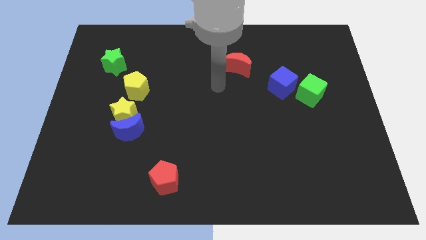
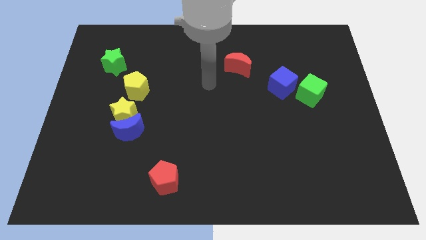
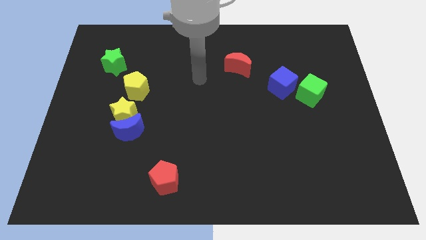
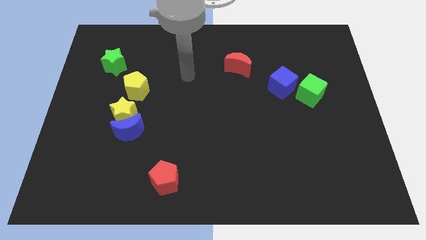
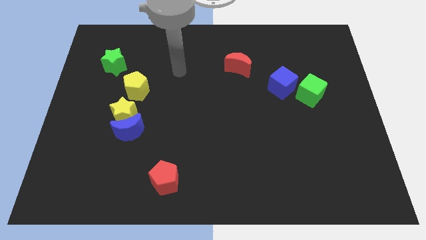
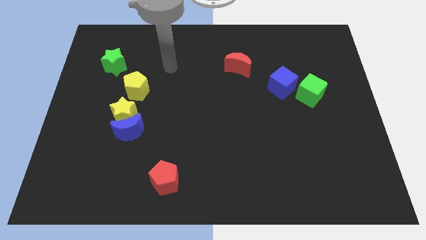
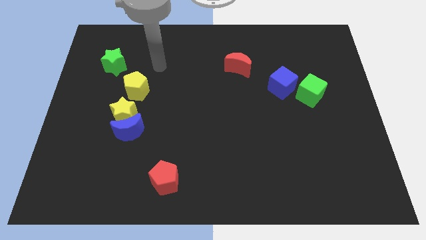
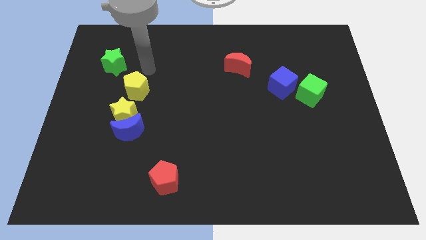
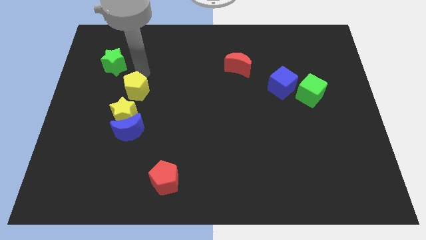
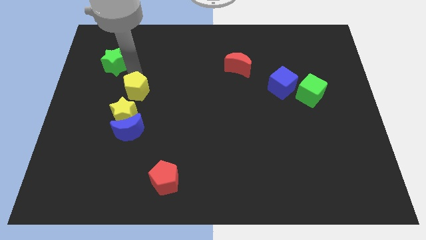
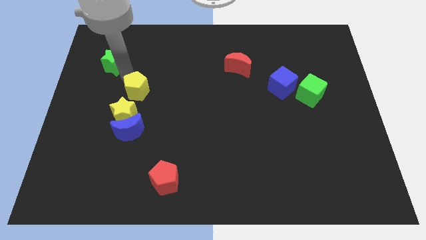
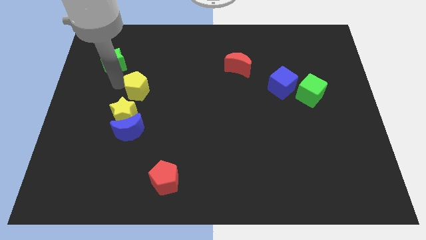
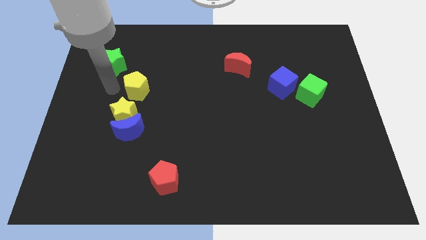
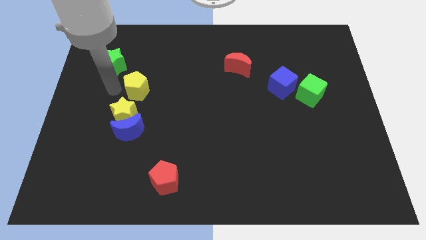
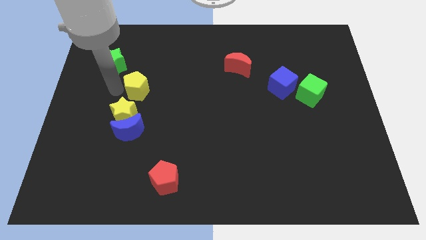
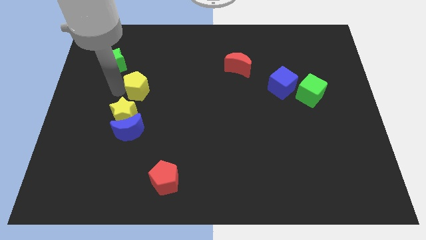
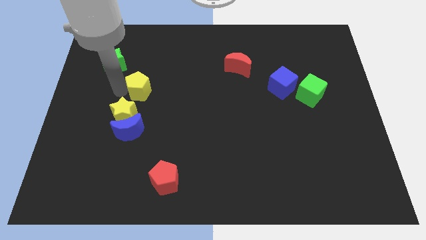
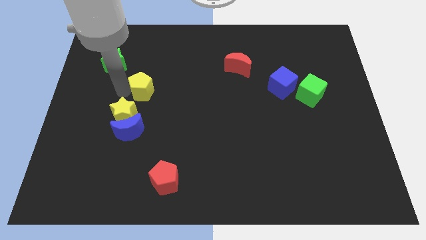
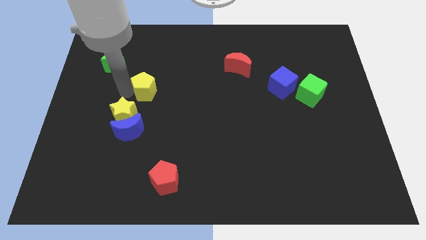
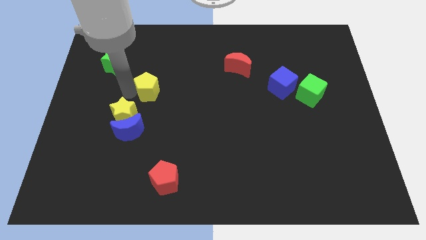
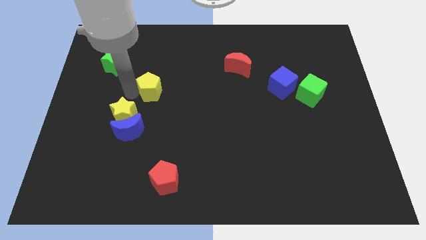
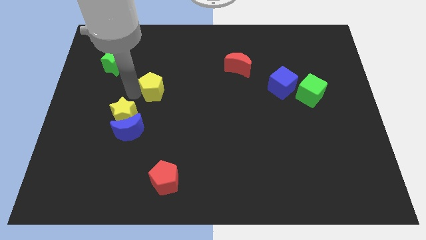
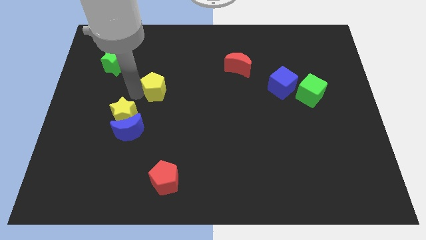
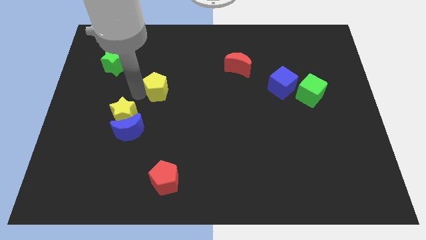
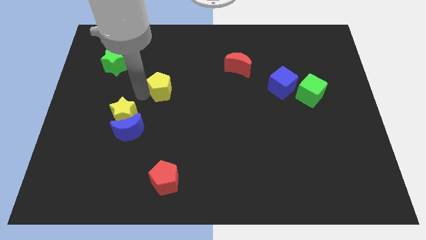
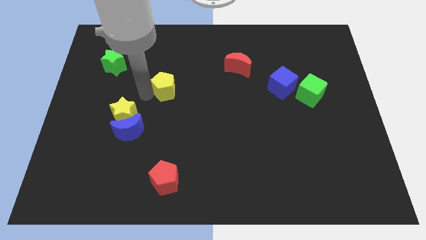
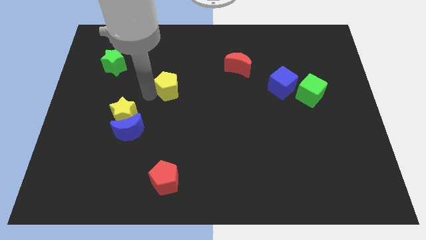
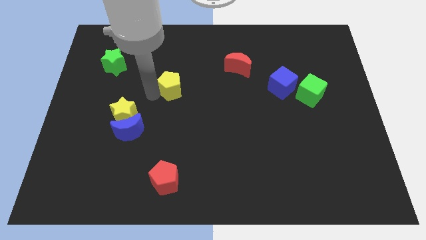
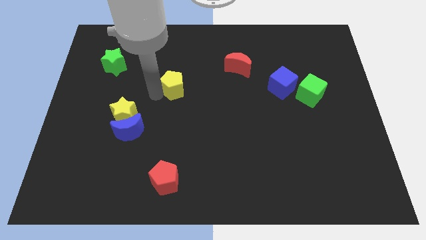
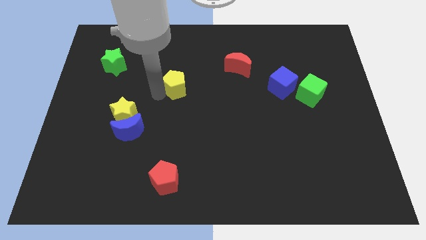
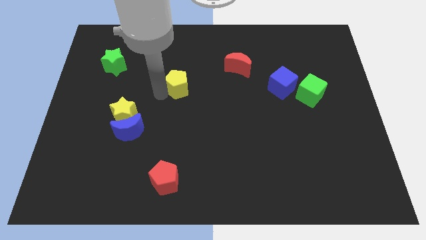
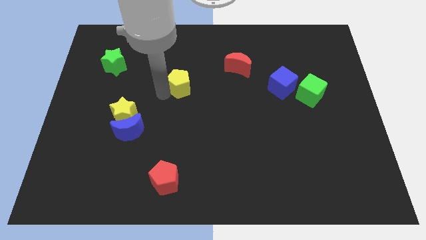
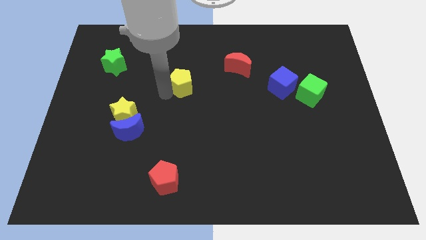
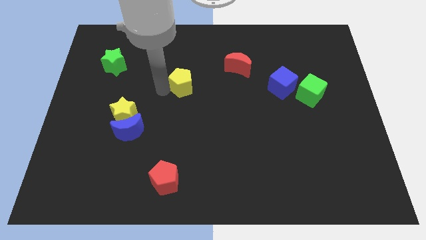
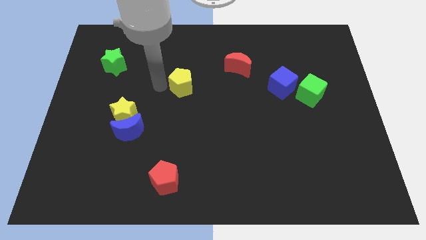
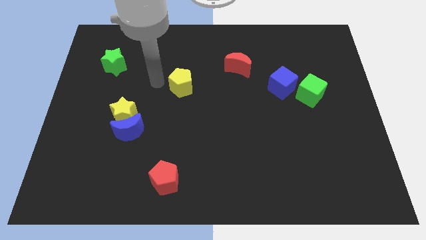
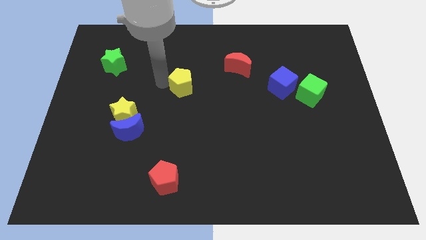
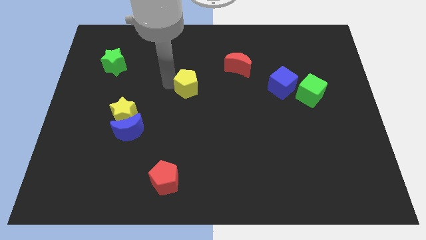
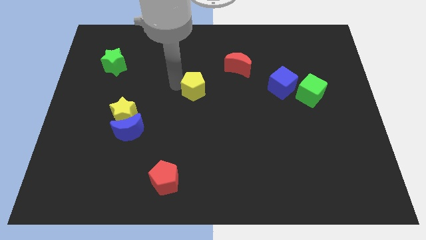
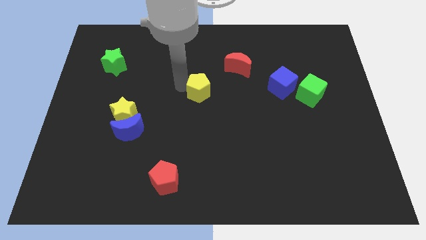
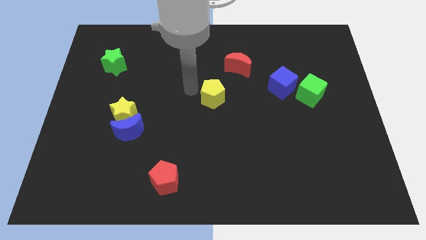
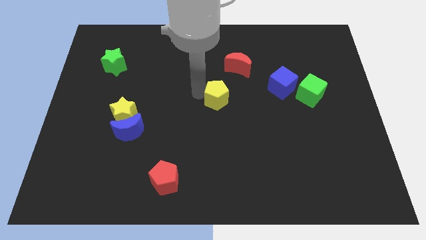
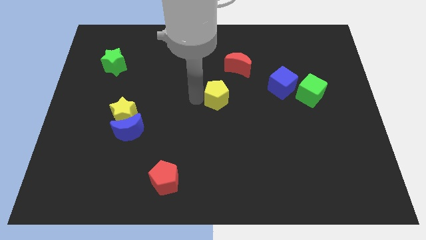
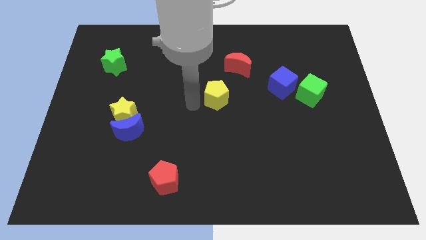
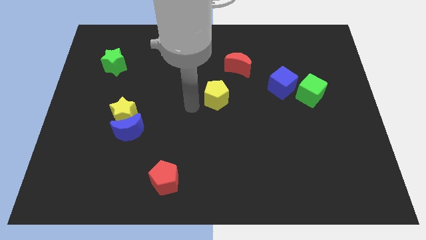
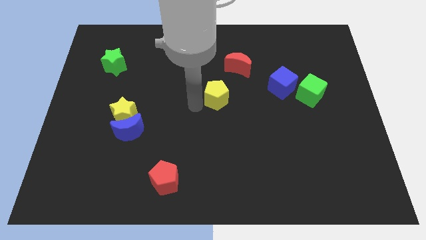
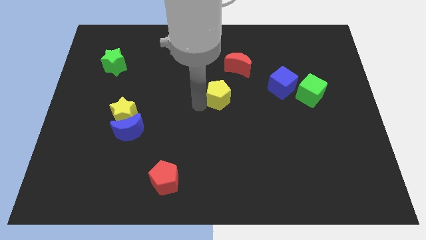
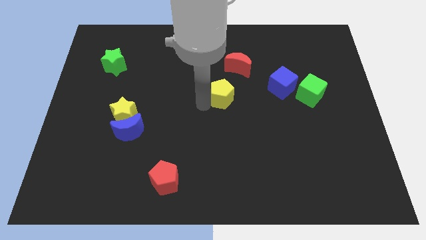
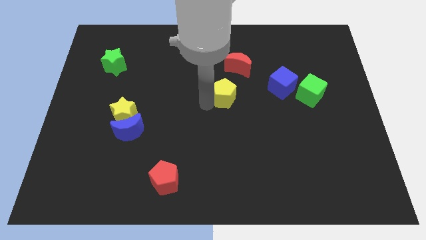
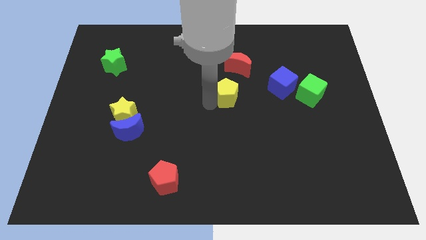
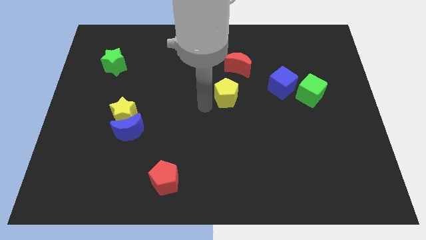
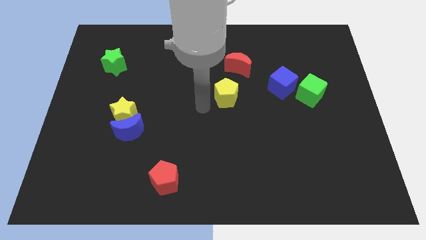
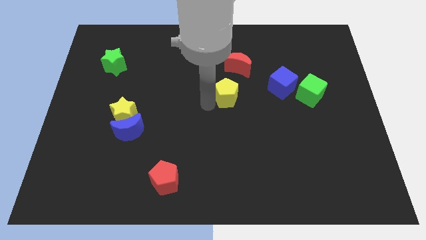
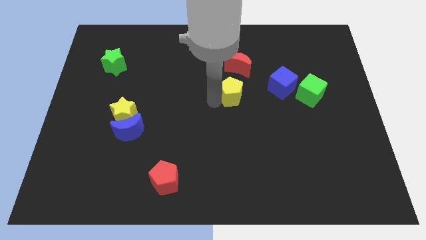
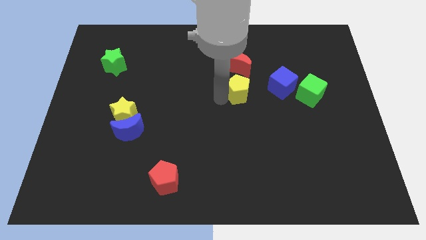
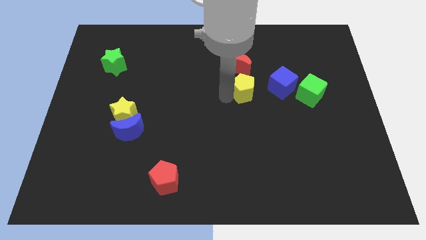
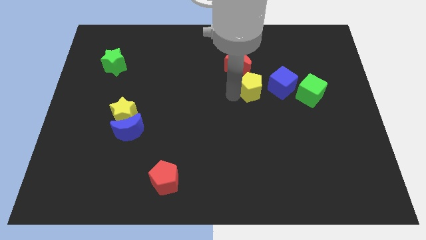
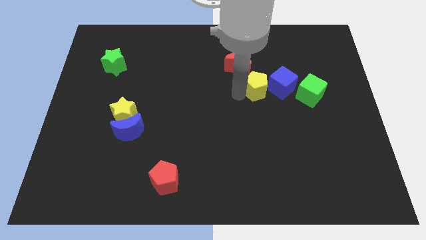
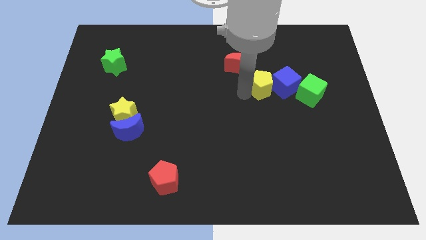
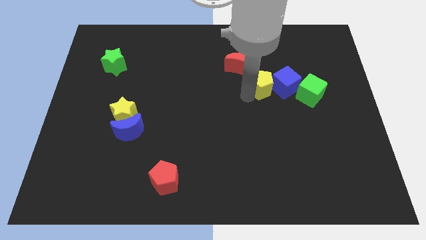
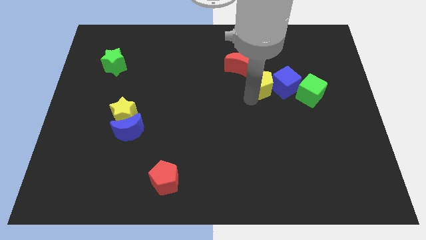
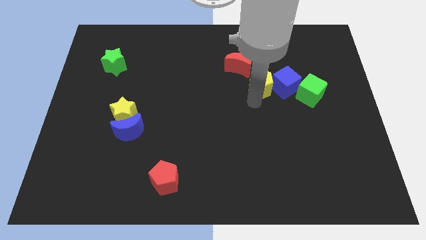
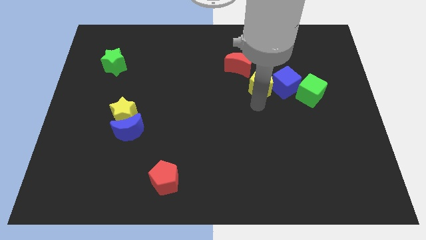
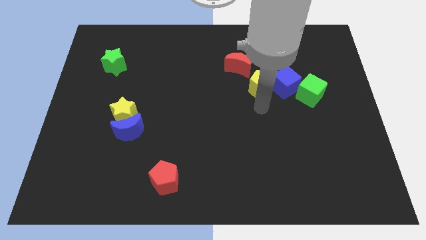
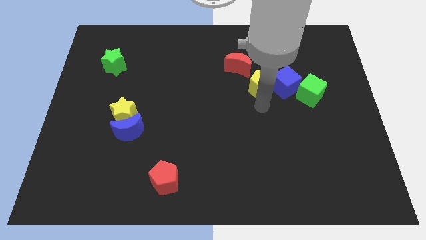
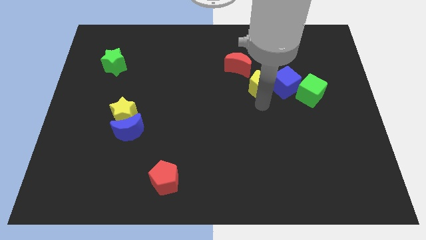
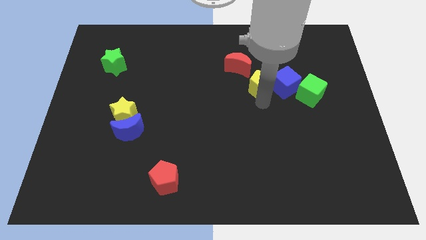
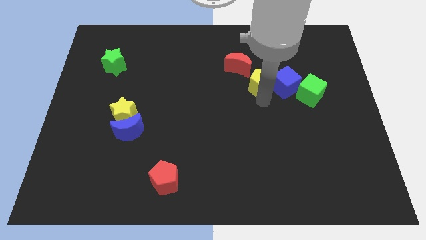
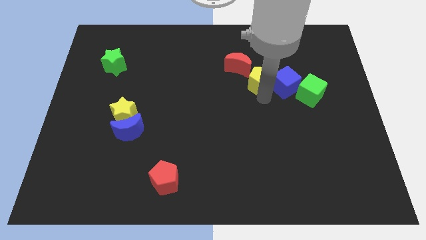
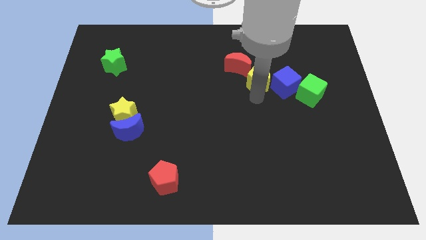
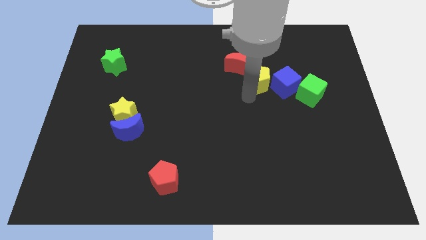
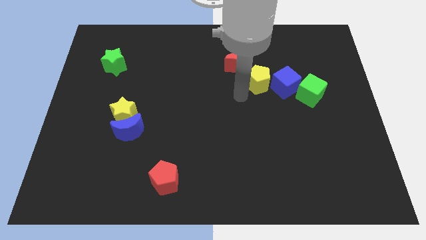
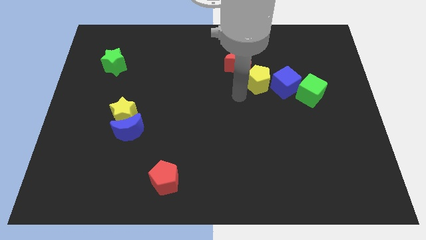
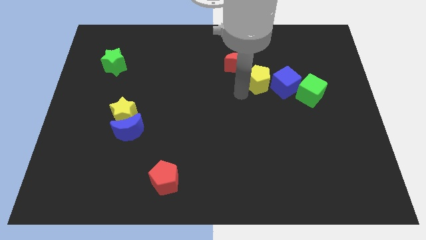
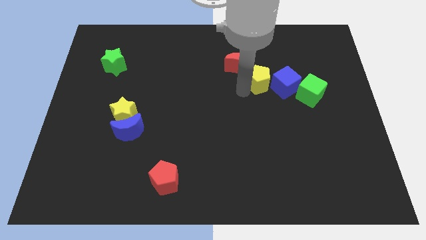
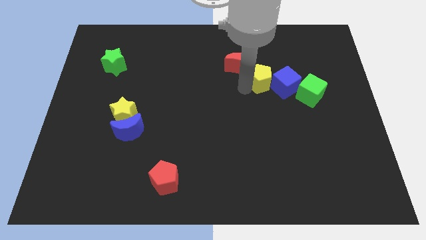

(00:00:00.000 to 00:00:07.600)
slide the yellow pentagon to the right side of the red moon
